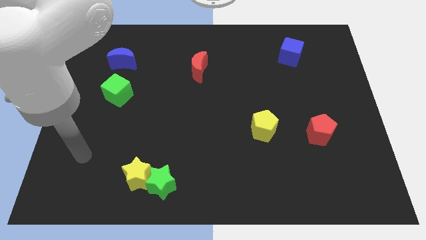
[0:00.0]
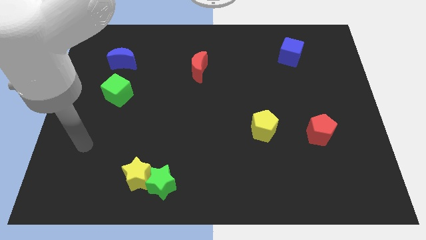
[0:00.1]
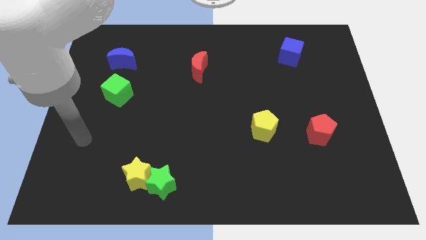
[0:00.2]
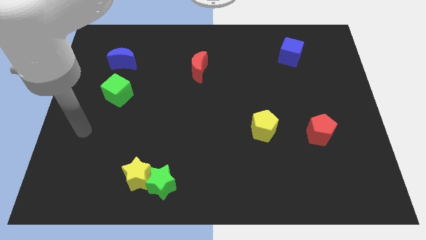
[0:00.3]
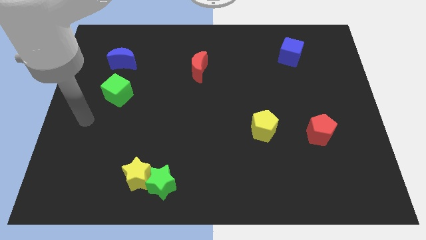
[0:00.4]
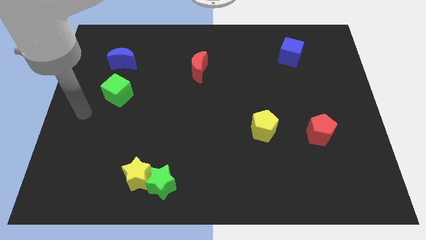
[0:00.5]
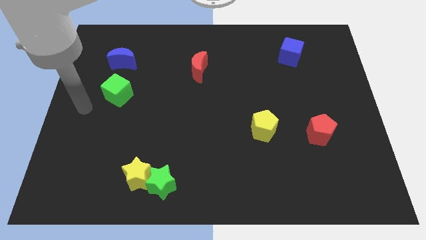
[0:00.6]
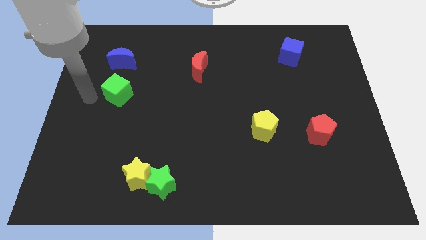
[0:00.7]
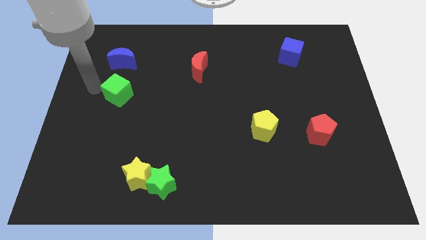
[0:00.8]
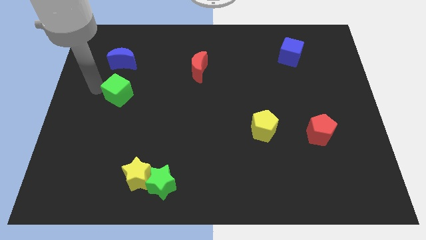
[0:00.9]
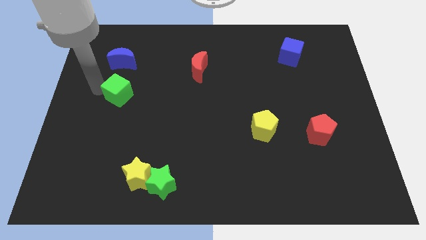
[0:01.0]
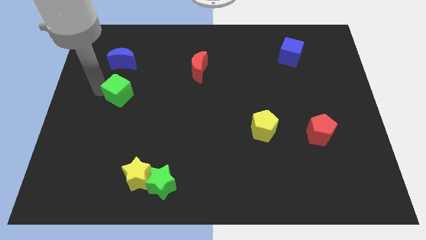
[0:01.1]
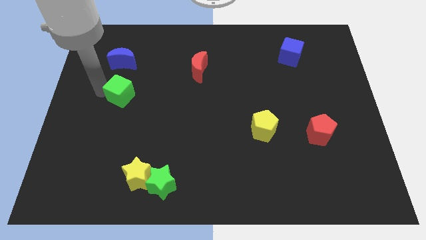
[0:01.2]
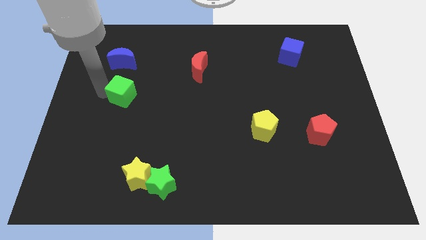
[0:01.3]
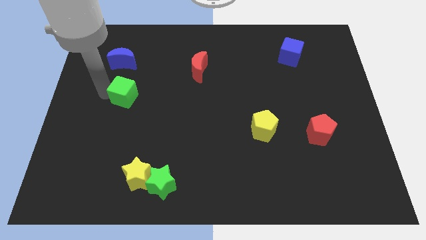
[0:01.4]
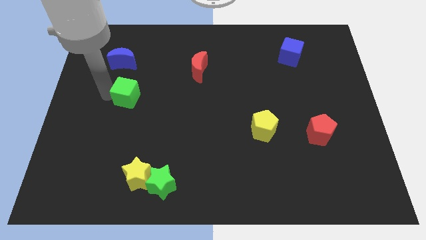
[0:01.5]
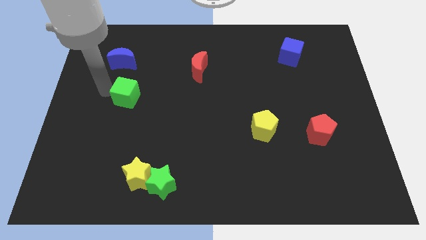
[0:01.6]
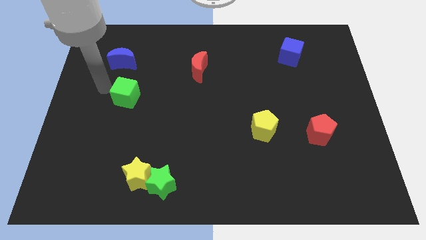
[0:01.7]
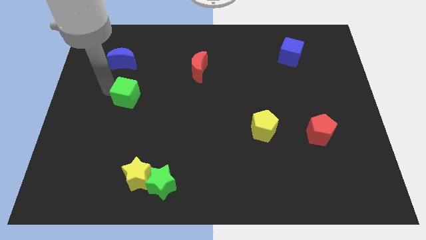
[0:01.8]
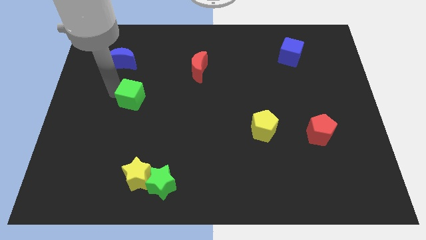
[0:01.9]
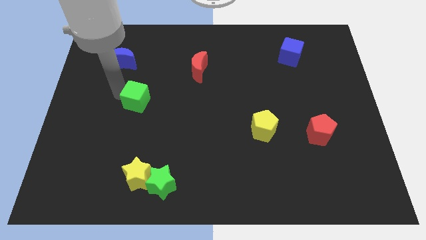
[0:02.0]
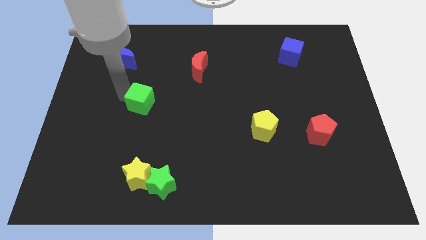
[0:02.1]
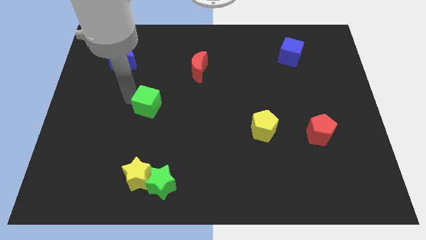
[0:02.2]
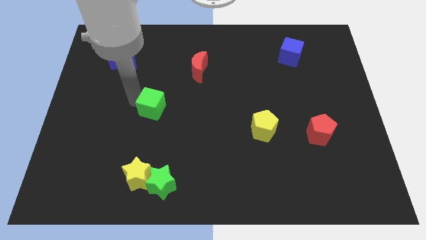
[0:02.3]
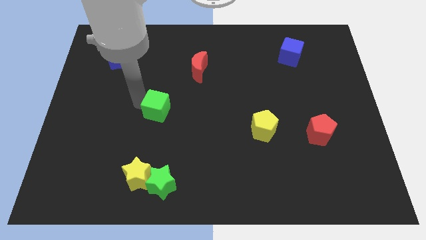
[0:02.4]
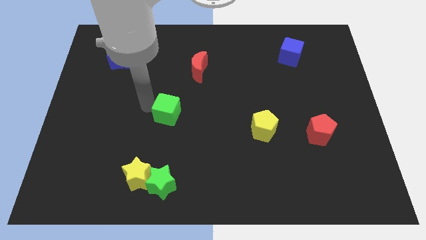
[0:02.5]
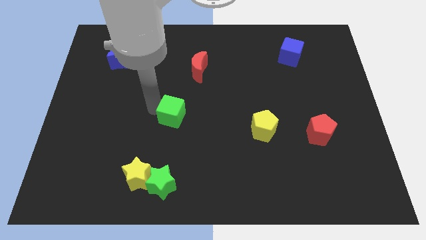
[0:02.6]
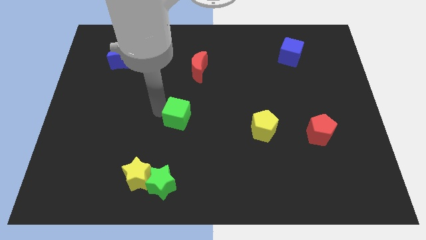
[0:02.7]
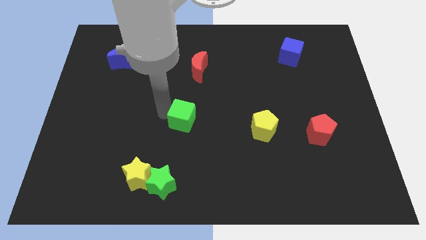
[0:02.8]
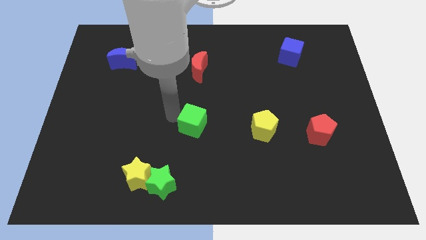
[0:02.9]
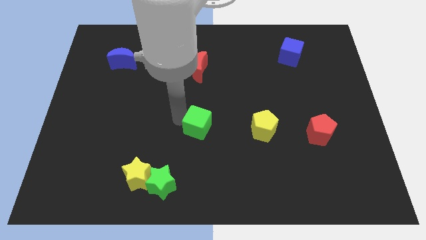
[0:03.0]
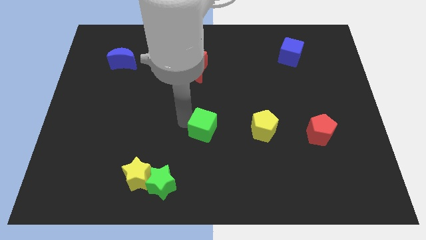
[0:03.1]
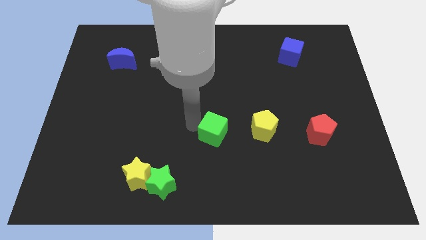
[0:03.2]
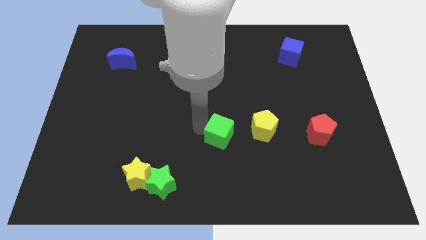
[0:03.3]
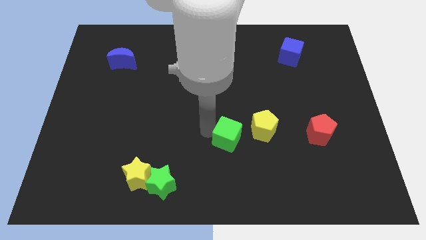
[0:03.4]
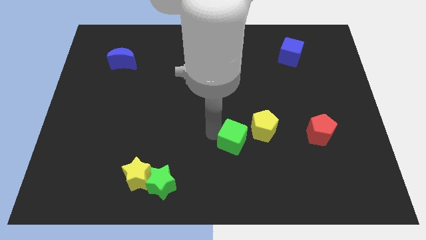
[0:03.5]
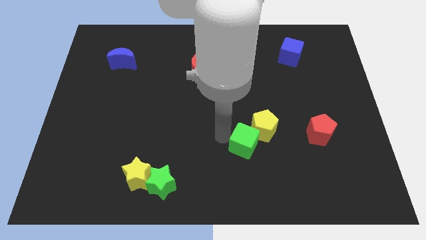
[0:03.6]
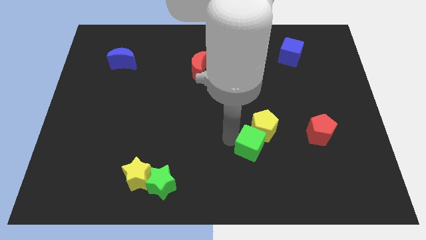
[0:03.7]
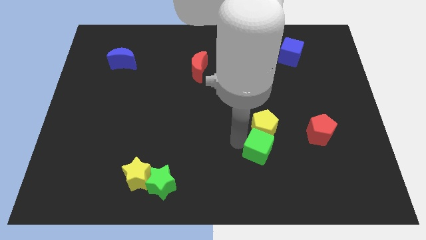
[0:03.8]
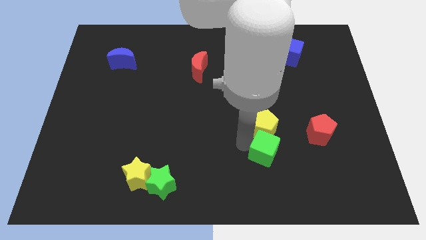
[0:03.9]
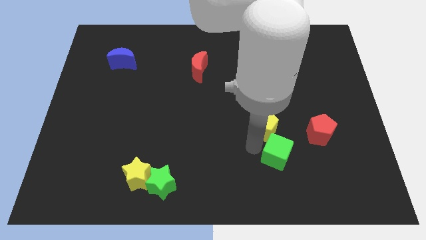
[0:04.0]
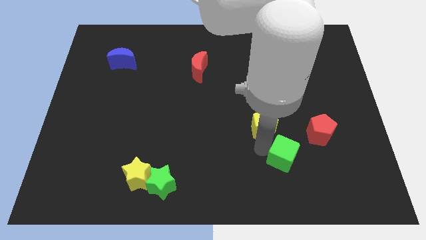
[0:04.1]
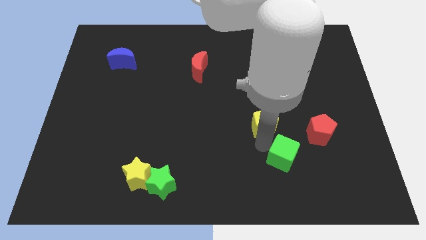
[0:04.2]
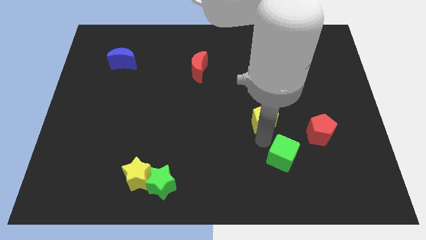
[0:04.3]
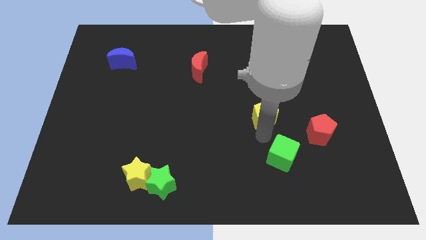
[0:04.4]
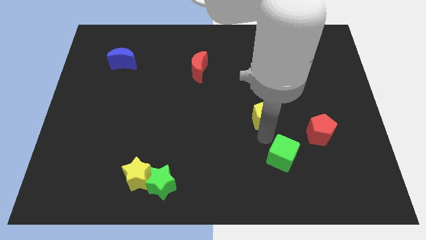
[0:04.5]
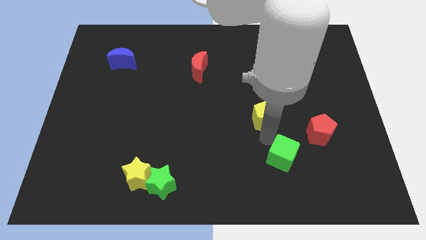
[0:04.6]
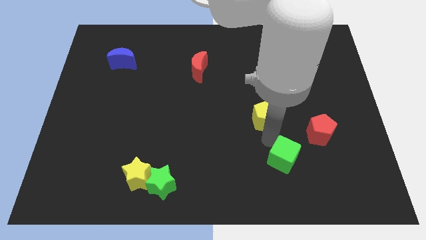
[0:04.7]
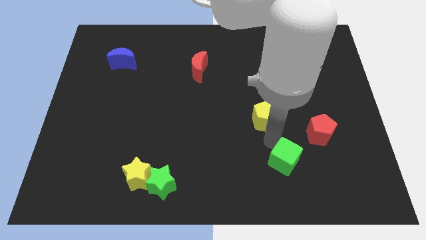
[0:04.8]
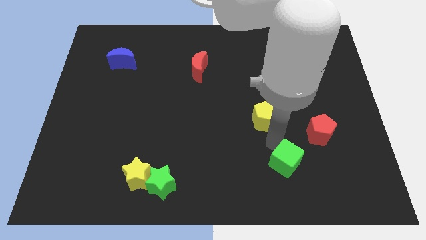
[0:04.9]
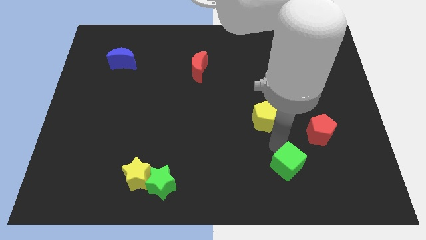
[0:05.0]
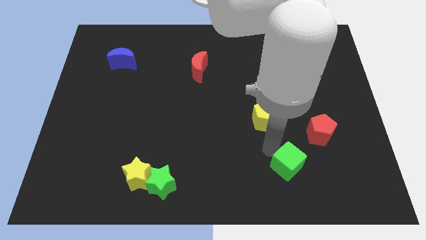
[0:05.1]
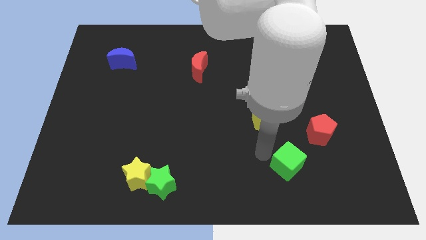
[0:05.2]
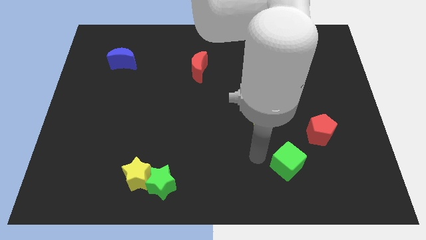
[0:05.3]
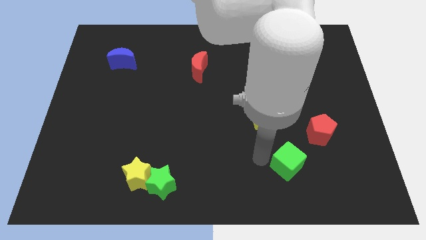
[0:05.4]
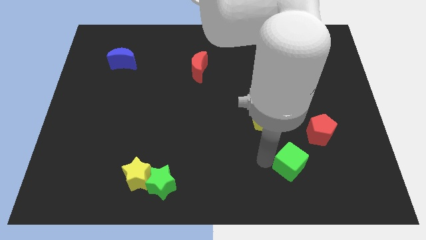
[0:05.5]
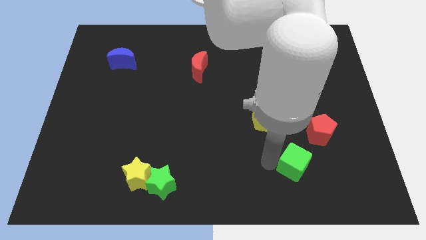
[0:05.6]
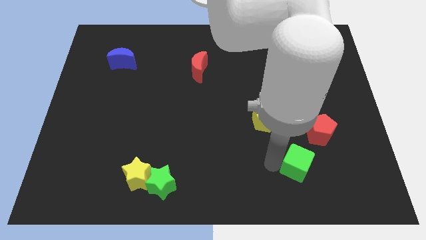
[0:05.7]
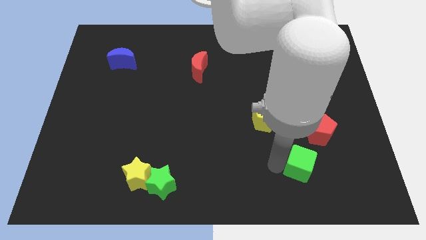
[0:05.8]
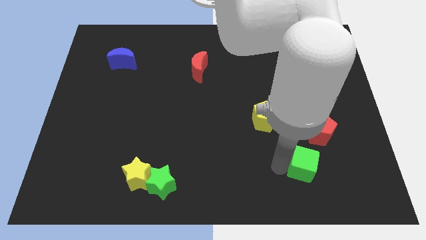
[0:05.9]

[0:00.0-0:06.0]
move the green cube to the bottom side of the red pentagon

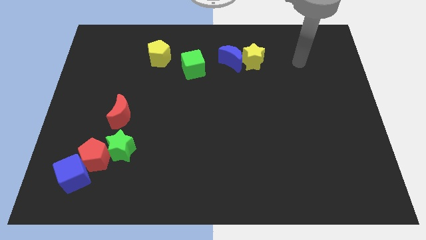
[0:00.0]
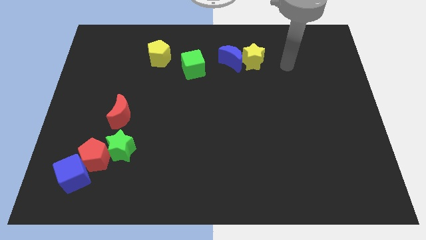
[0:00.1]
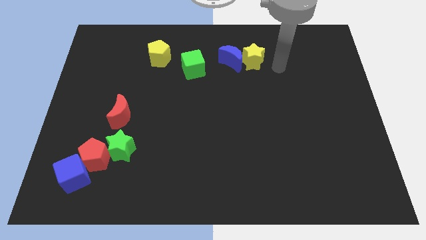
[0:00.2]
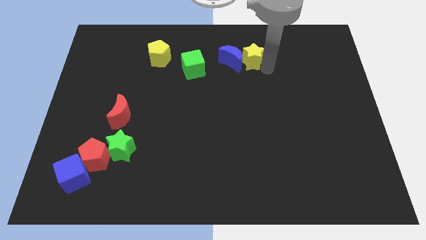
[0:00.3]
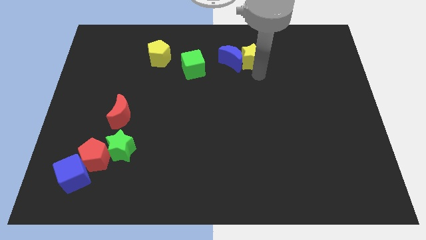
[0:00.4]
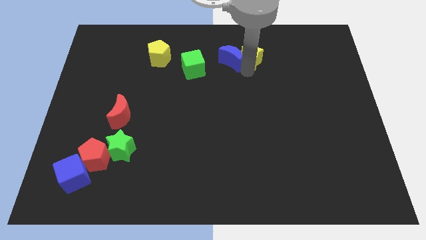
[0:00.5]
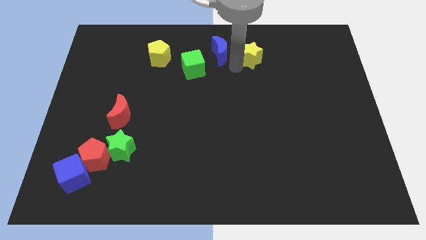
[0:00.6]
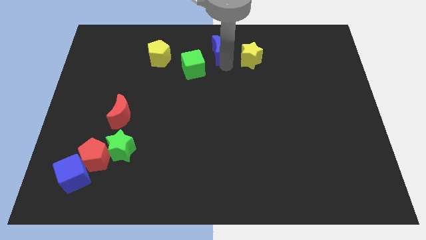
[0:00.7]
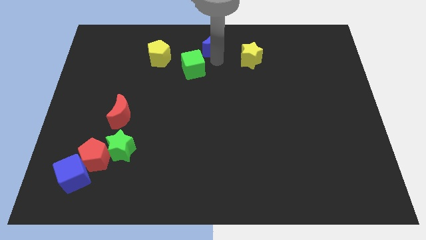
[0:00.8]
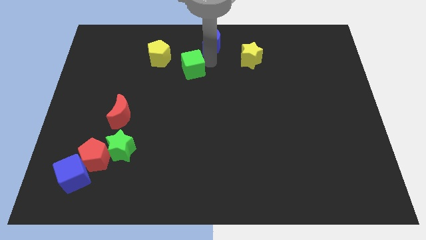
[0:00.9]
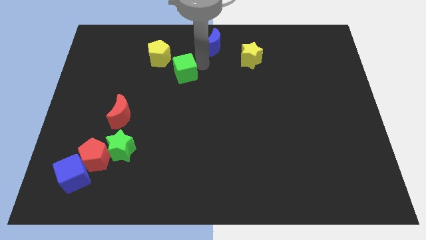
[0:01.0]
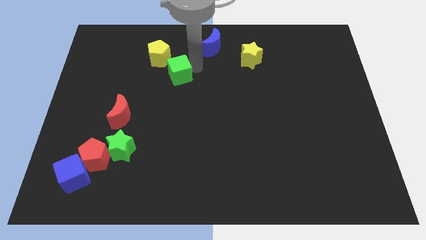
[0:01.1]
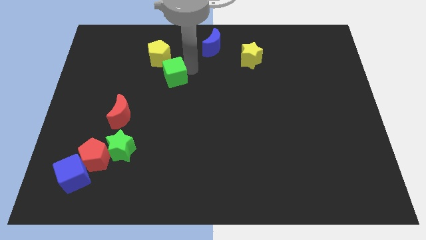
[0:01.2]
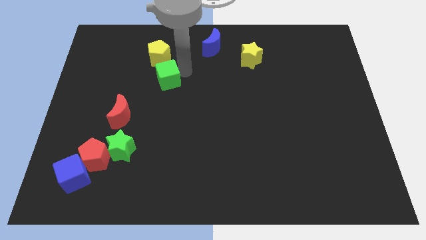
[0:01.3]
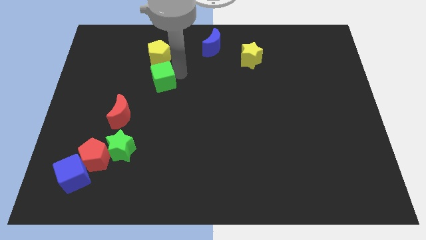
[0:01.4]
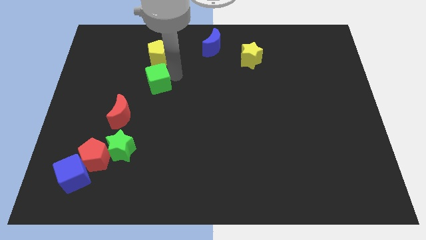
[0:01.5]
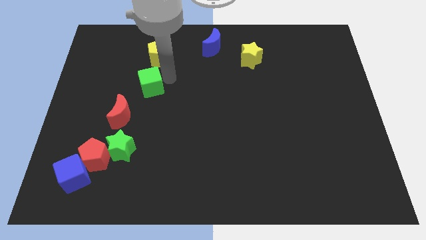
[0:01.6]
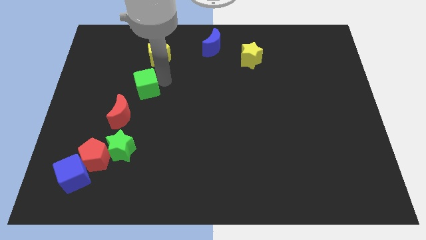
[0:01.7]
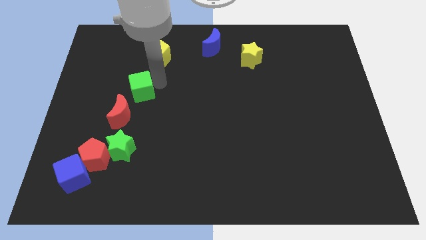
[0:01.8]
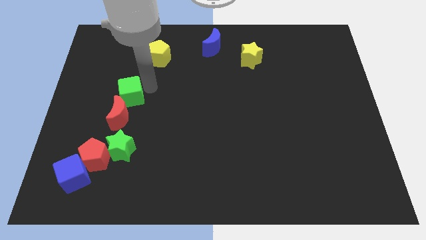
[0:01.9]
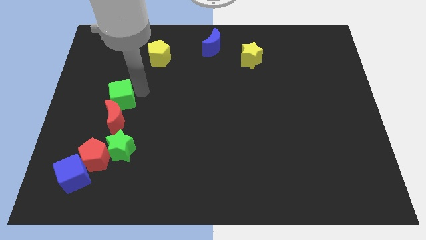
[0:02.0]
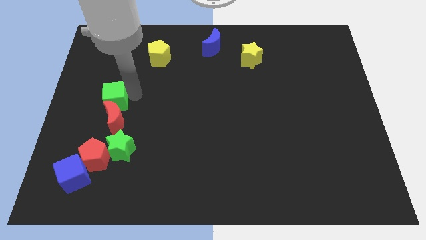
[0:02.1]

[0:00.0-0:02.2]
push the green cube above the red pentagon
